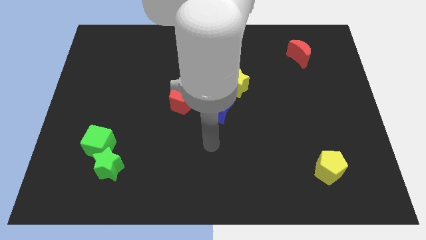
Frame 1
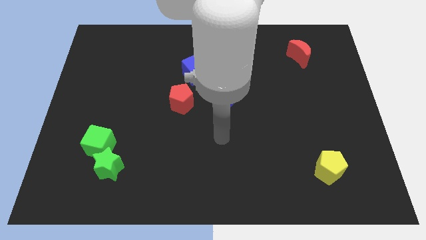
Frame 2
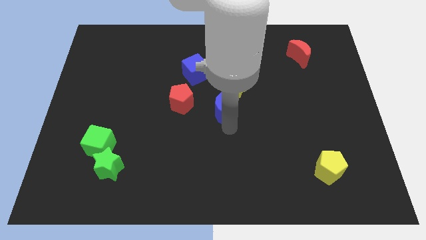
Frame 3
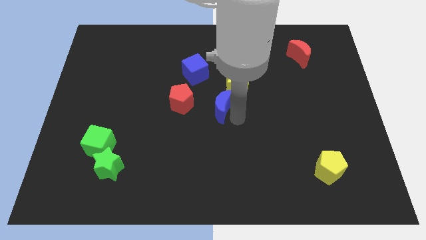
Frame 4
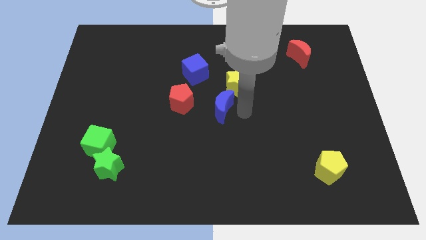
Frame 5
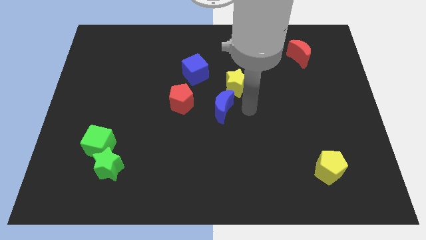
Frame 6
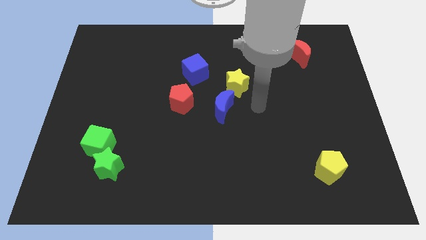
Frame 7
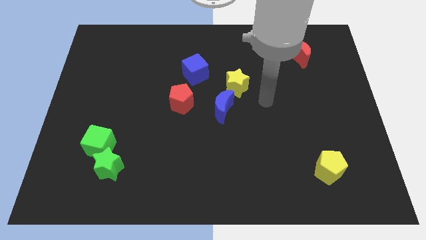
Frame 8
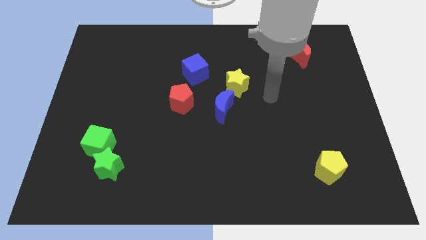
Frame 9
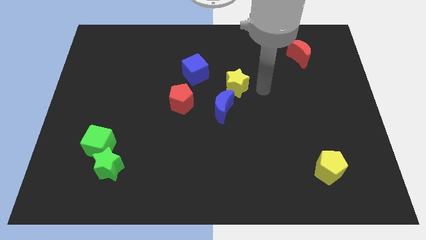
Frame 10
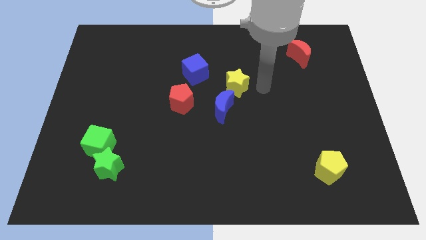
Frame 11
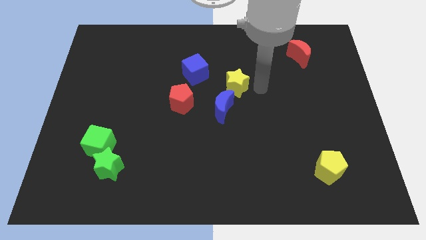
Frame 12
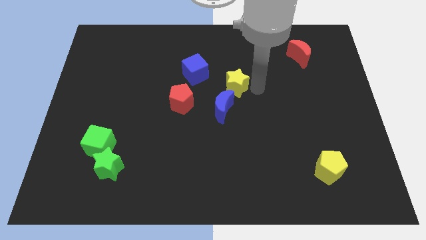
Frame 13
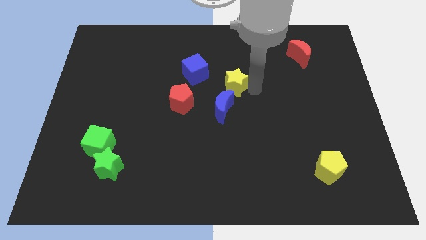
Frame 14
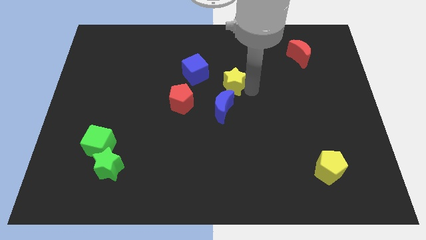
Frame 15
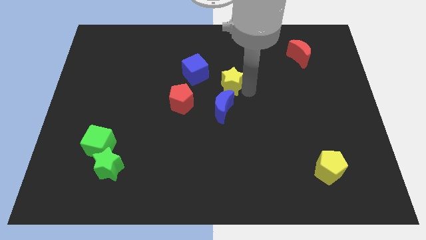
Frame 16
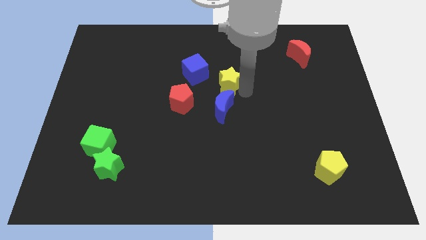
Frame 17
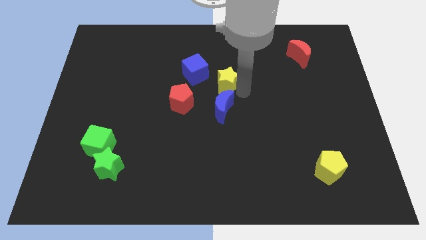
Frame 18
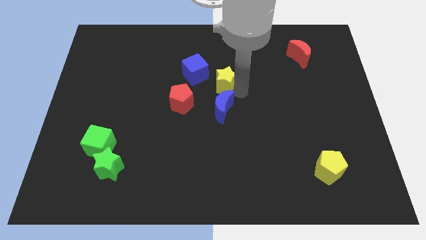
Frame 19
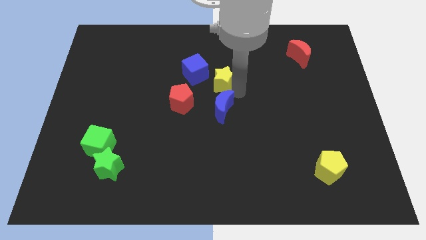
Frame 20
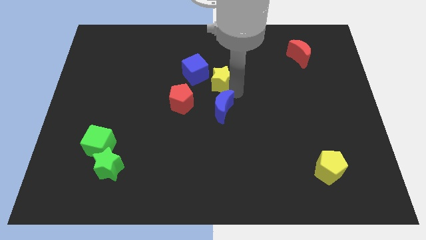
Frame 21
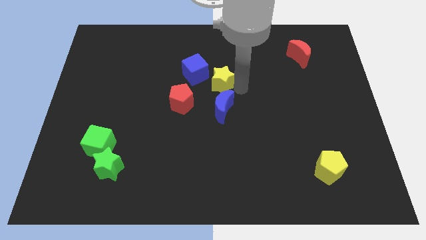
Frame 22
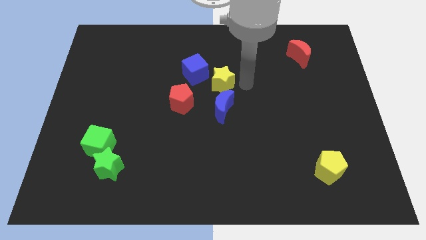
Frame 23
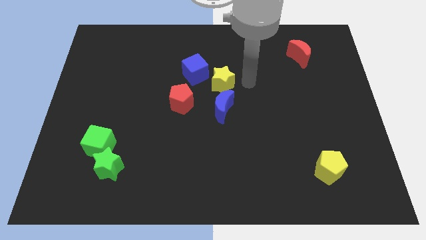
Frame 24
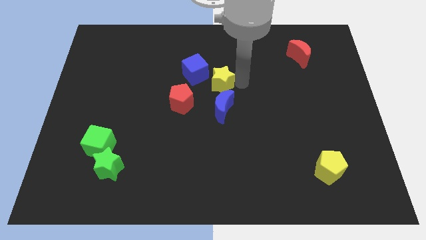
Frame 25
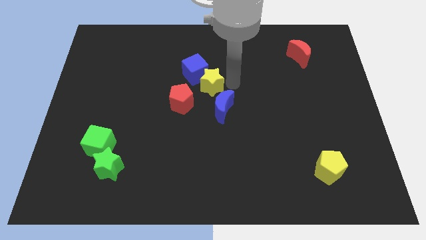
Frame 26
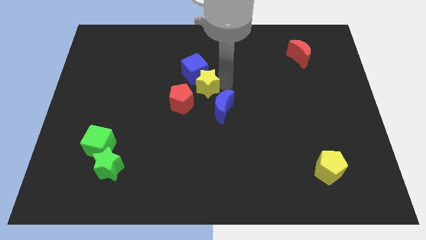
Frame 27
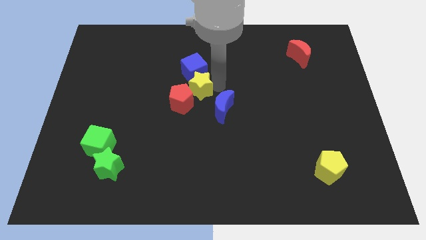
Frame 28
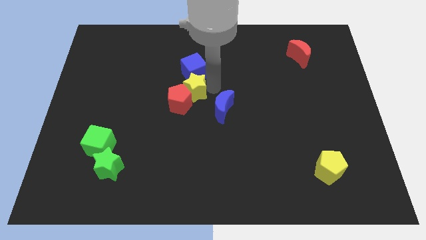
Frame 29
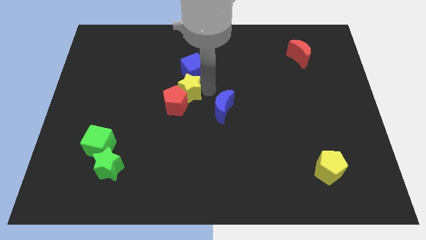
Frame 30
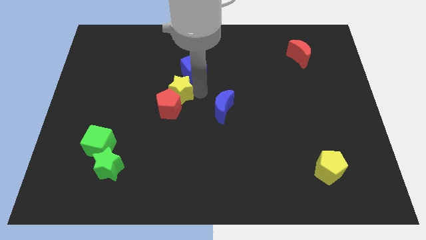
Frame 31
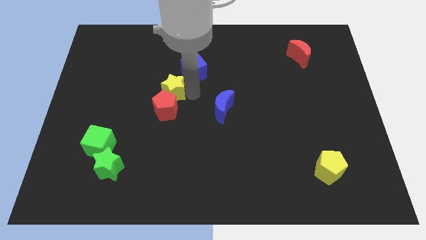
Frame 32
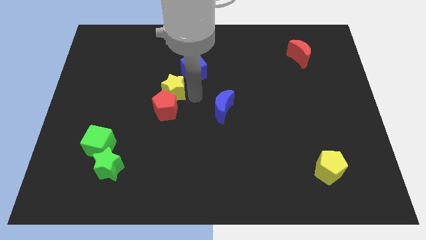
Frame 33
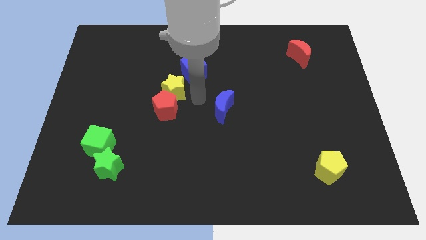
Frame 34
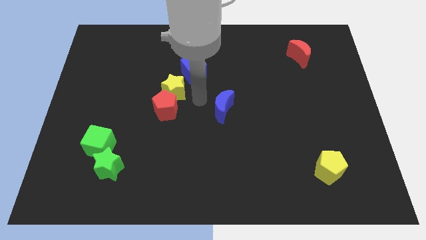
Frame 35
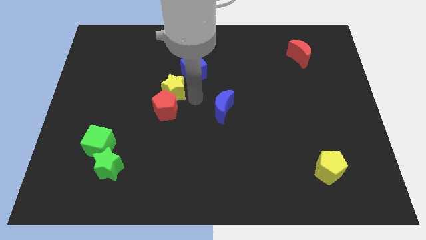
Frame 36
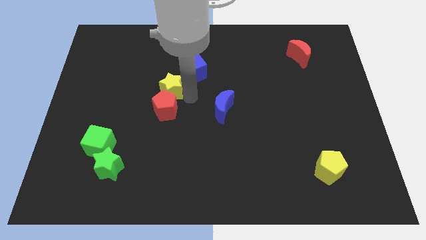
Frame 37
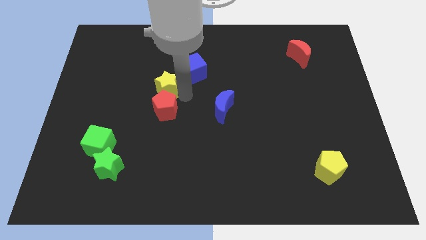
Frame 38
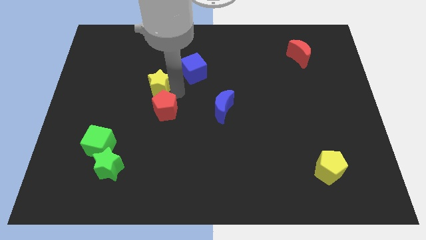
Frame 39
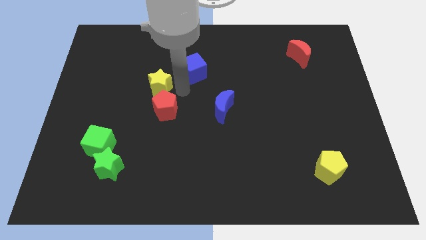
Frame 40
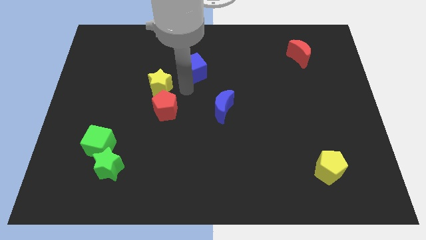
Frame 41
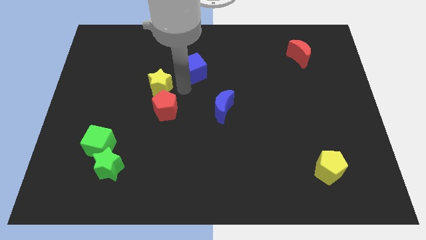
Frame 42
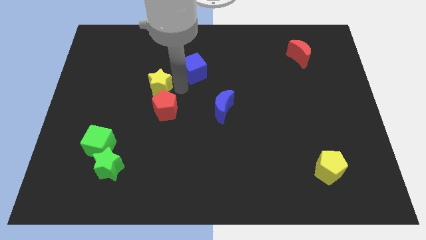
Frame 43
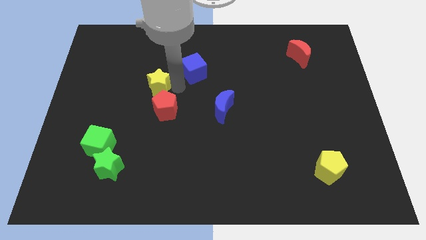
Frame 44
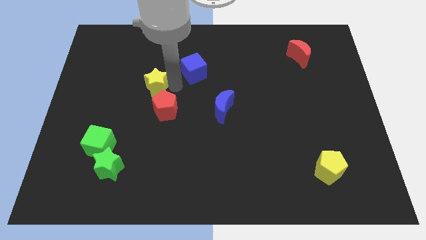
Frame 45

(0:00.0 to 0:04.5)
move the yellow star to the left

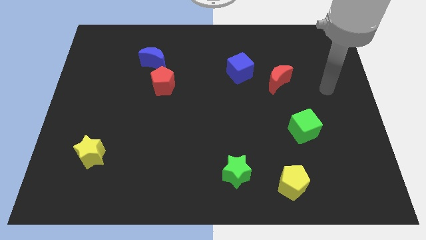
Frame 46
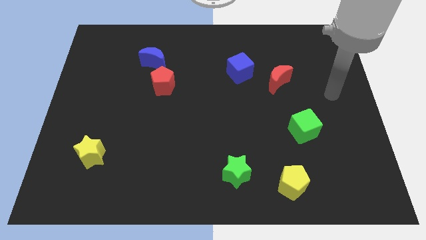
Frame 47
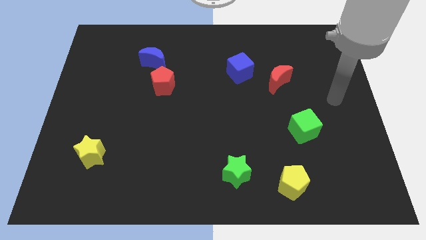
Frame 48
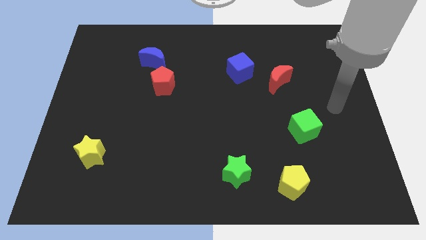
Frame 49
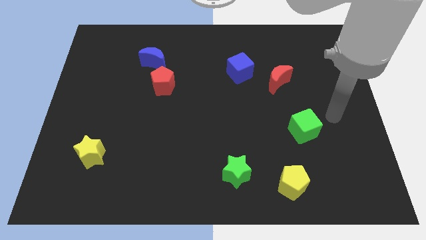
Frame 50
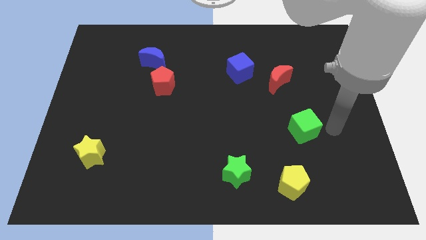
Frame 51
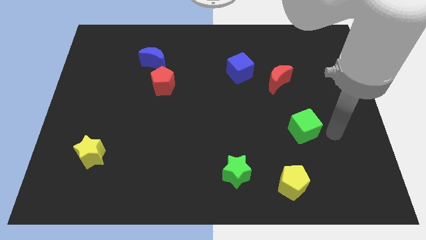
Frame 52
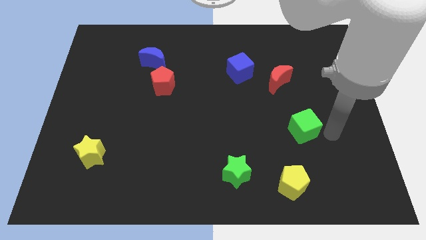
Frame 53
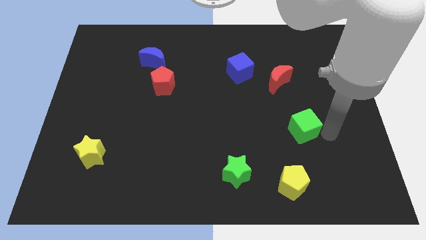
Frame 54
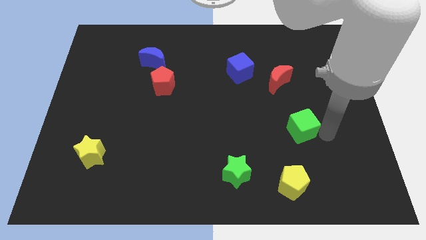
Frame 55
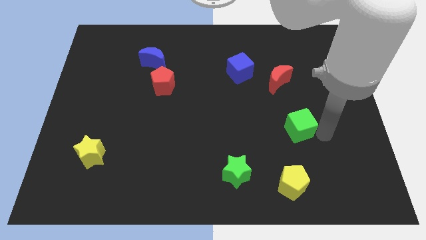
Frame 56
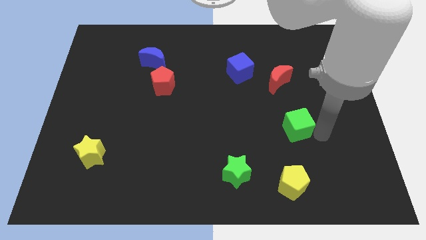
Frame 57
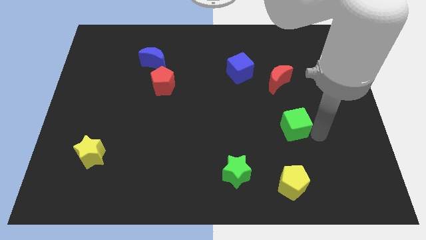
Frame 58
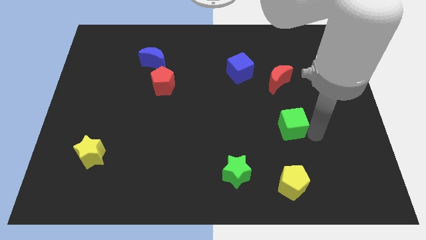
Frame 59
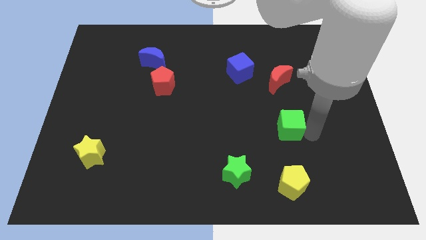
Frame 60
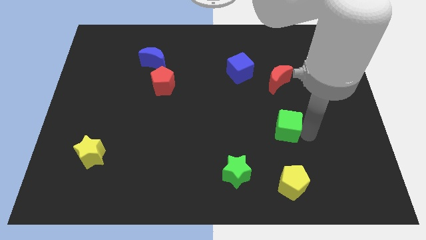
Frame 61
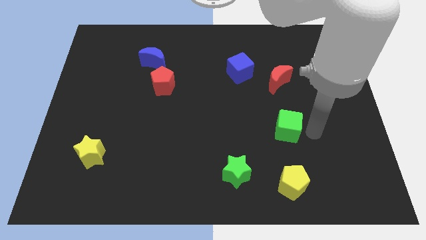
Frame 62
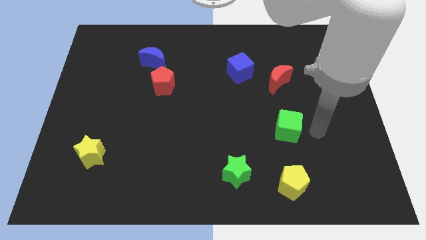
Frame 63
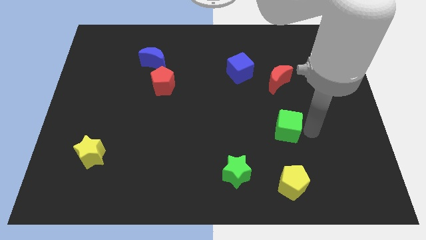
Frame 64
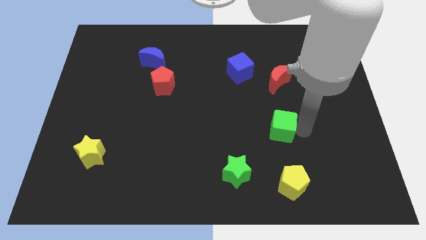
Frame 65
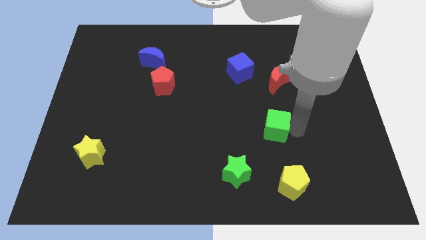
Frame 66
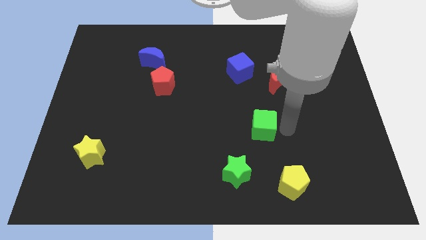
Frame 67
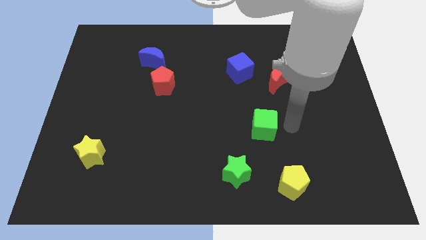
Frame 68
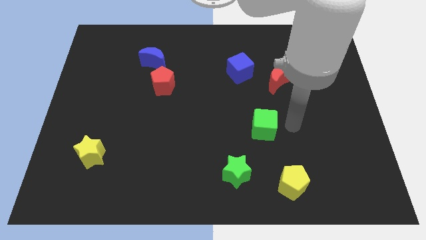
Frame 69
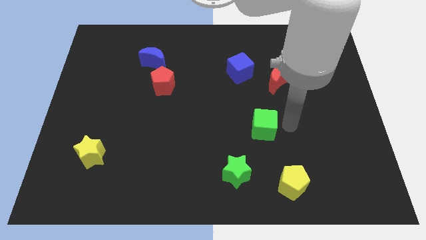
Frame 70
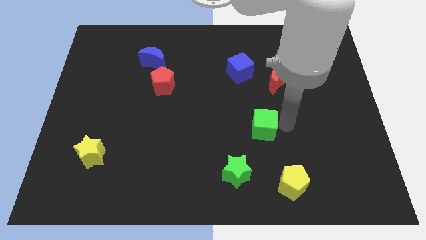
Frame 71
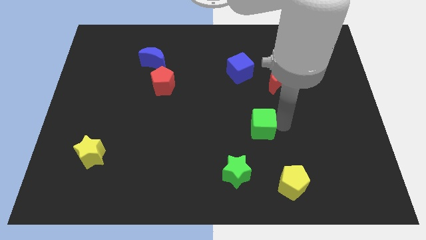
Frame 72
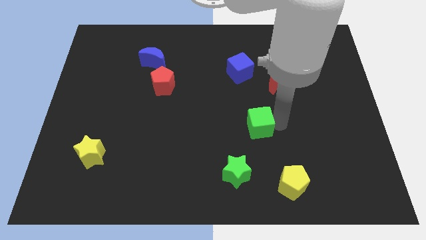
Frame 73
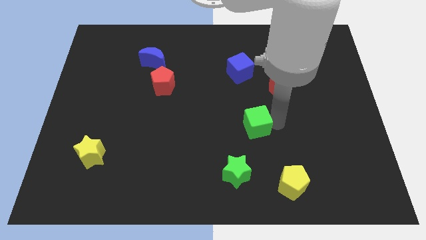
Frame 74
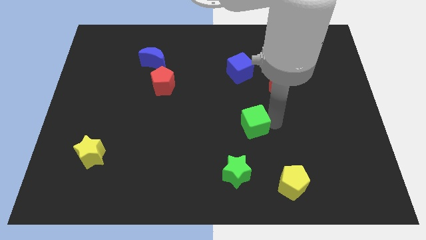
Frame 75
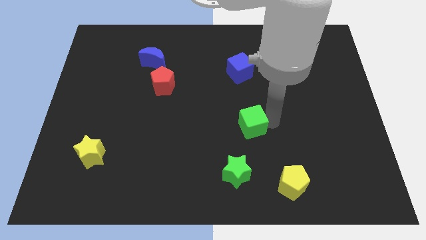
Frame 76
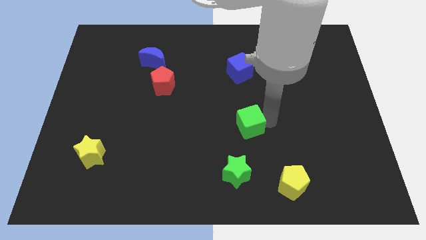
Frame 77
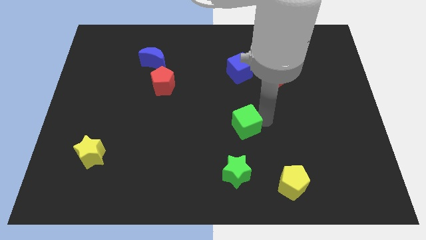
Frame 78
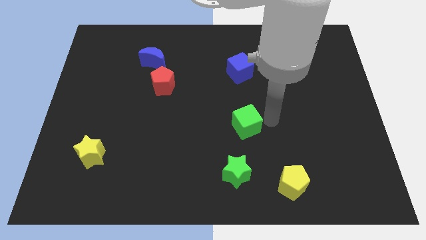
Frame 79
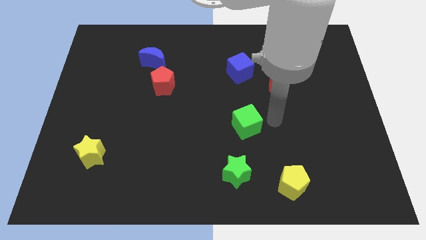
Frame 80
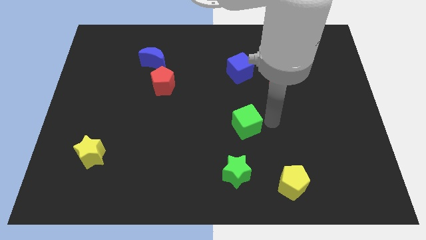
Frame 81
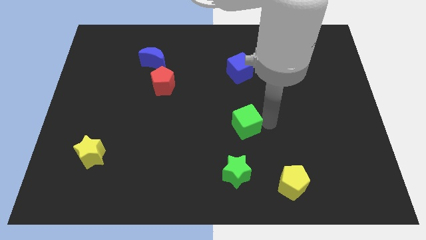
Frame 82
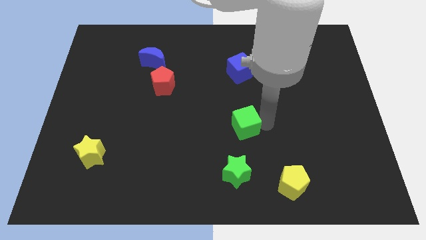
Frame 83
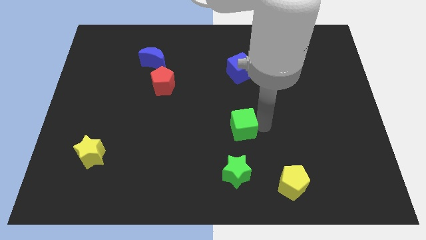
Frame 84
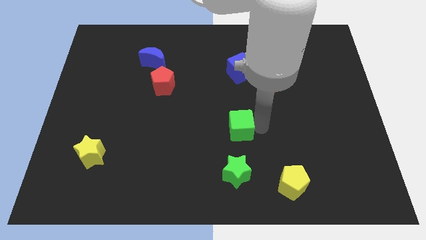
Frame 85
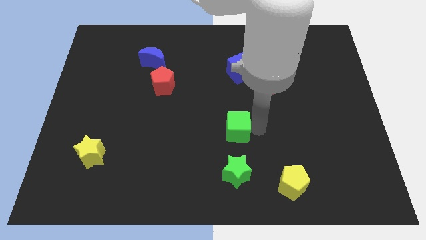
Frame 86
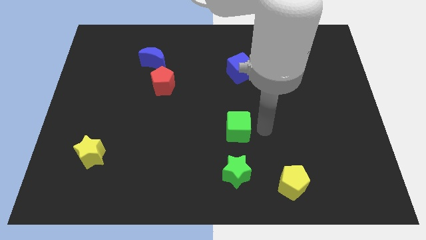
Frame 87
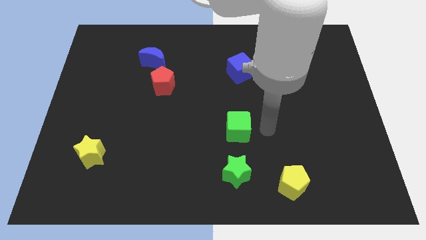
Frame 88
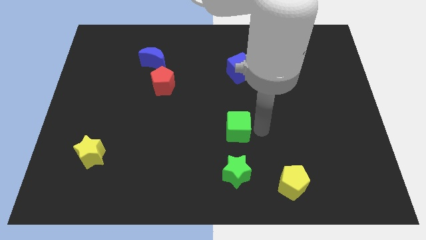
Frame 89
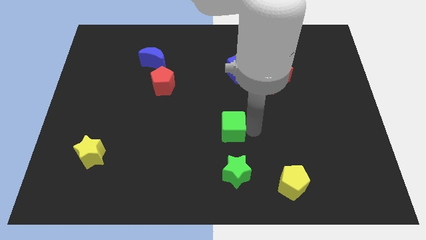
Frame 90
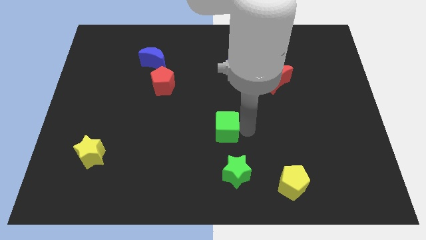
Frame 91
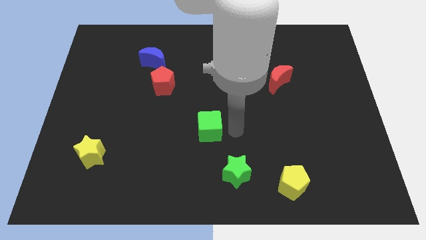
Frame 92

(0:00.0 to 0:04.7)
push the green cube to the left
